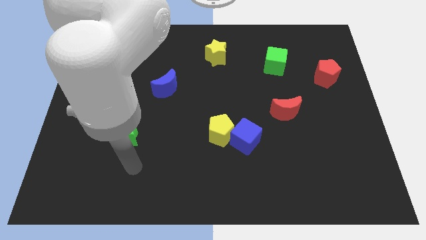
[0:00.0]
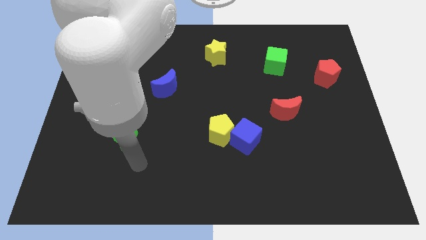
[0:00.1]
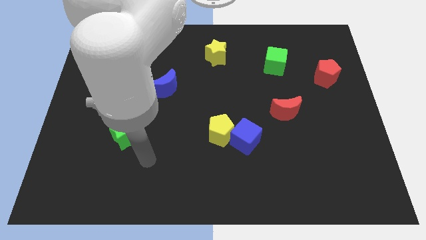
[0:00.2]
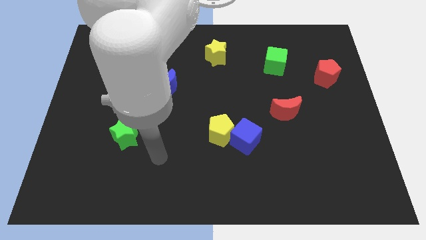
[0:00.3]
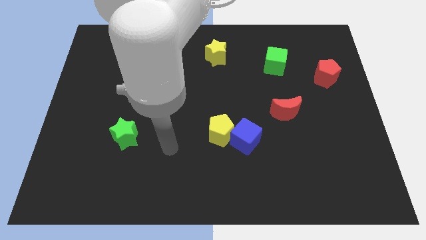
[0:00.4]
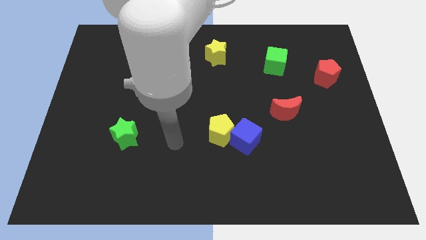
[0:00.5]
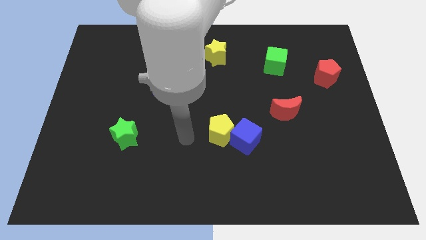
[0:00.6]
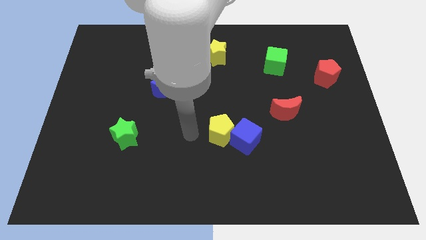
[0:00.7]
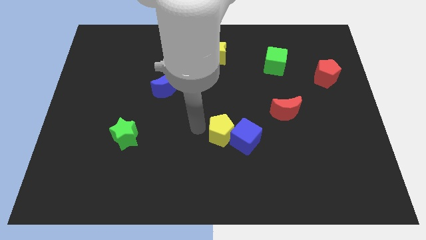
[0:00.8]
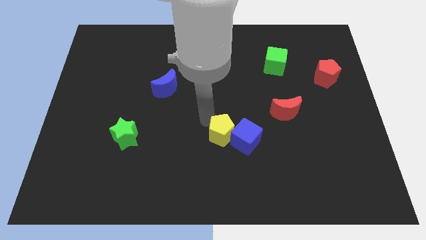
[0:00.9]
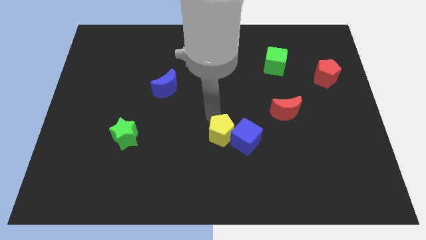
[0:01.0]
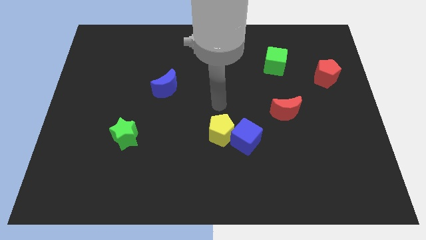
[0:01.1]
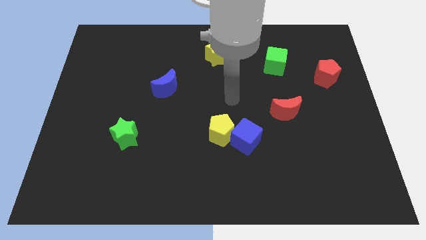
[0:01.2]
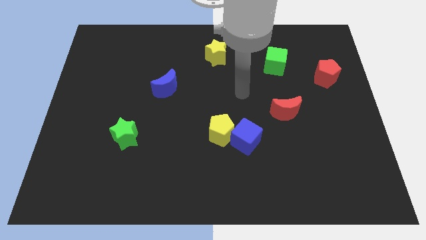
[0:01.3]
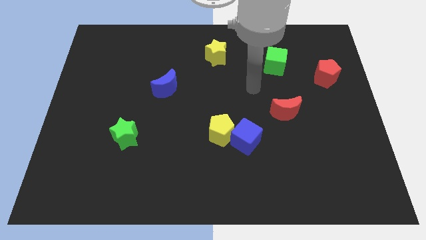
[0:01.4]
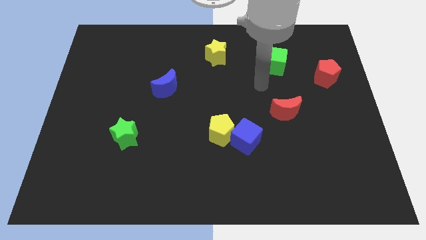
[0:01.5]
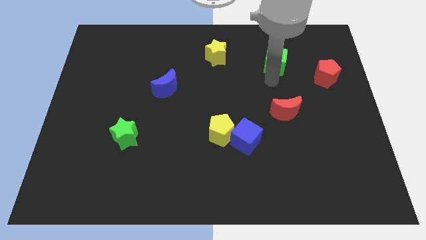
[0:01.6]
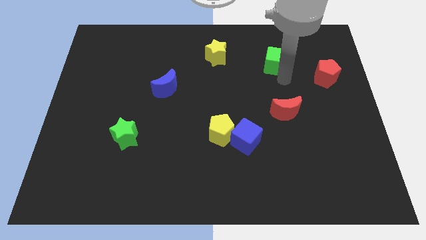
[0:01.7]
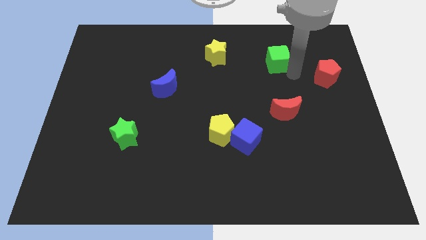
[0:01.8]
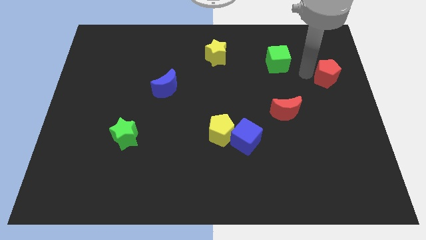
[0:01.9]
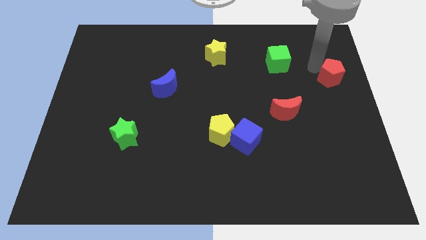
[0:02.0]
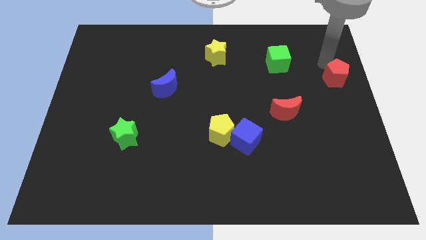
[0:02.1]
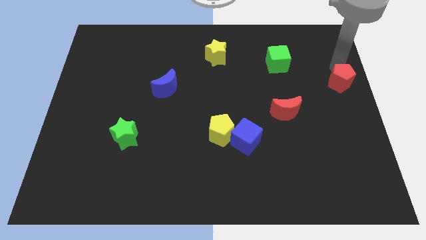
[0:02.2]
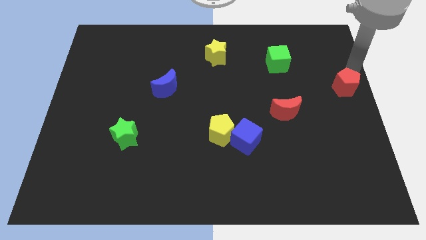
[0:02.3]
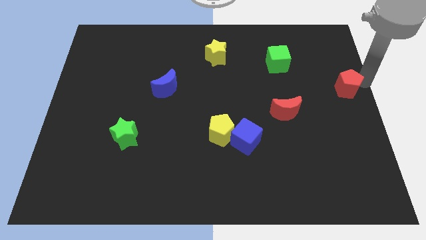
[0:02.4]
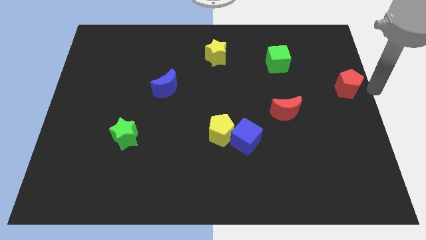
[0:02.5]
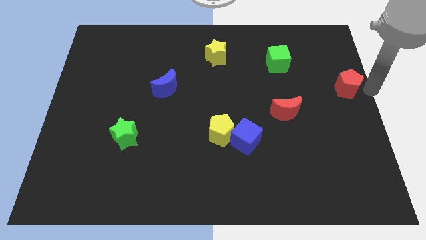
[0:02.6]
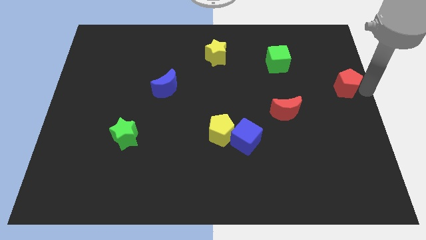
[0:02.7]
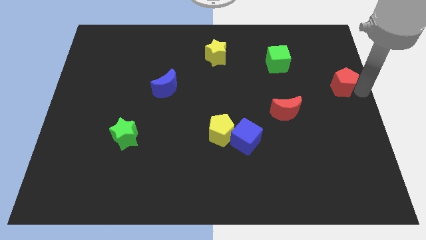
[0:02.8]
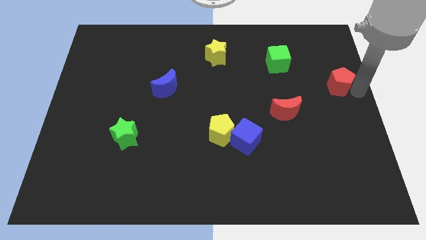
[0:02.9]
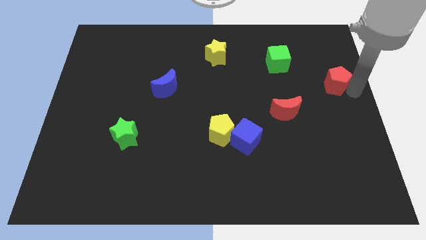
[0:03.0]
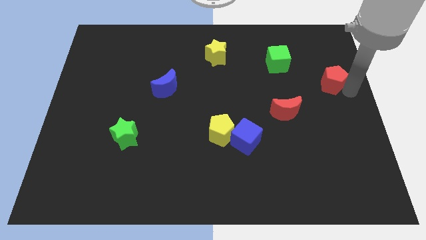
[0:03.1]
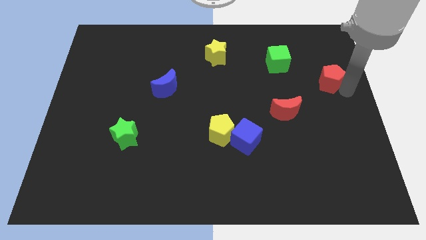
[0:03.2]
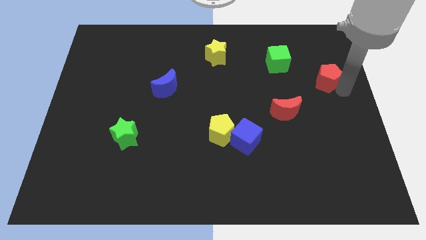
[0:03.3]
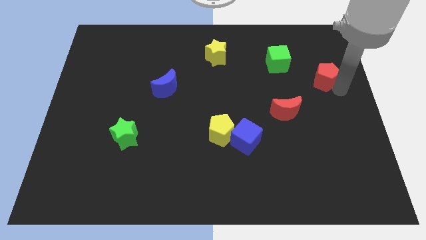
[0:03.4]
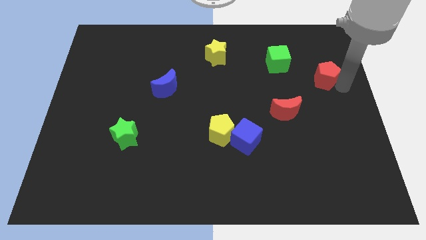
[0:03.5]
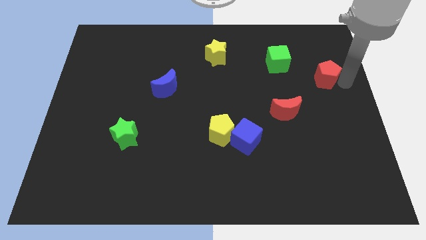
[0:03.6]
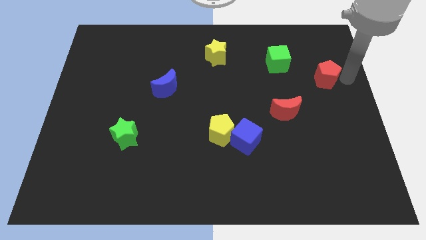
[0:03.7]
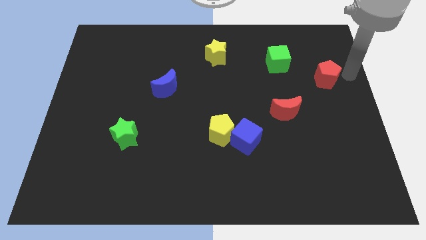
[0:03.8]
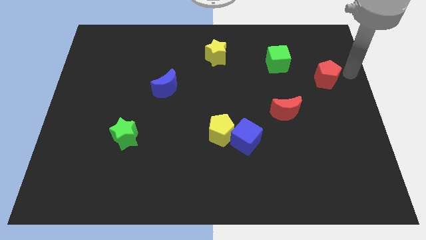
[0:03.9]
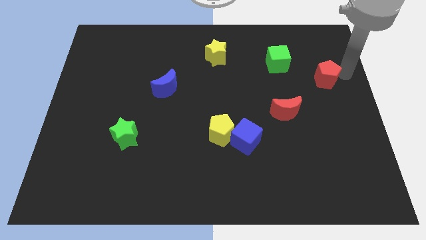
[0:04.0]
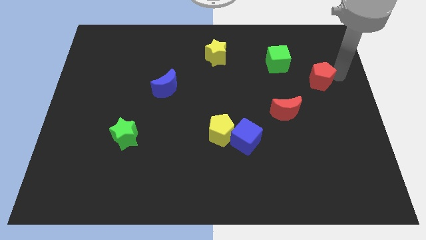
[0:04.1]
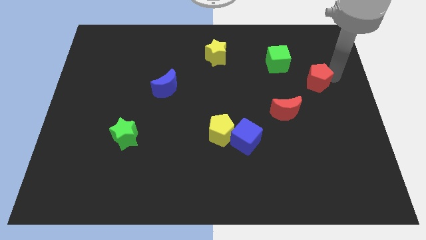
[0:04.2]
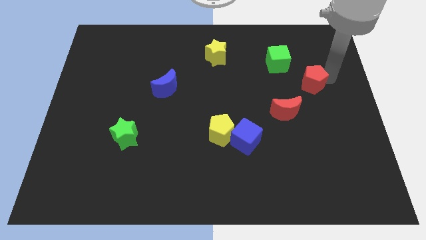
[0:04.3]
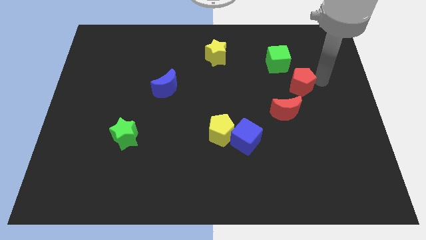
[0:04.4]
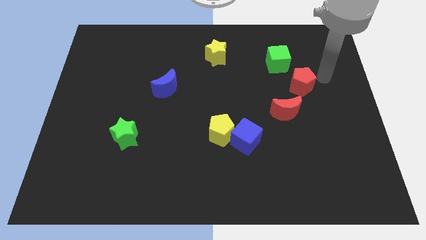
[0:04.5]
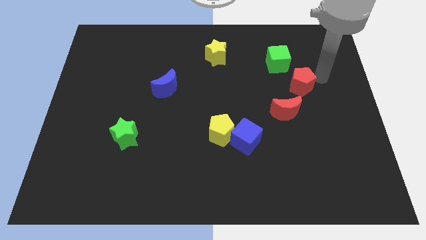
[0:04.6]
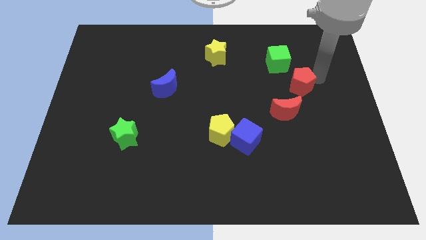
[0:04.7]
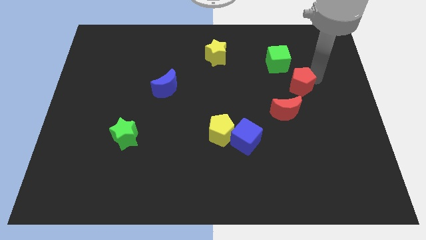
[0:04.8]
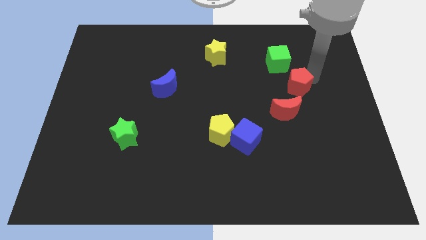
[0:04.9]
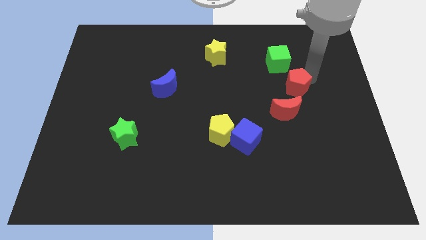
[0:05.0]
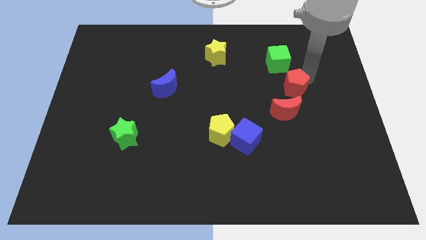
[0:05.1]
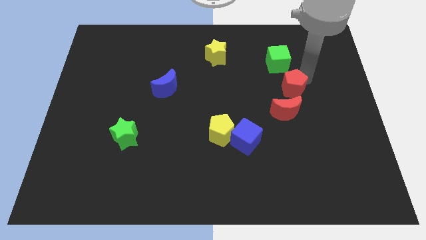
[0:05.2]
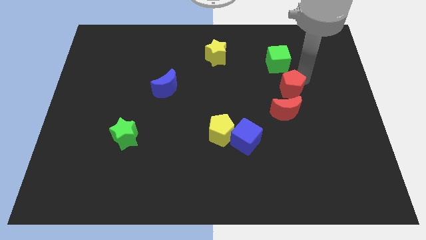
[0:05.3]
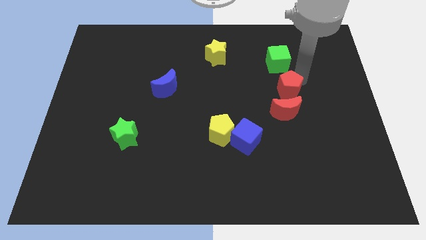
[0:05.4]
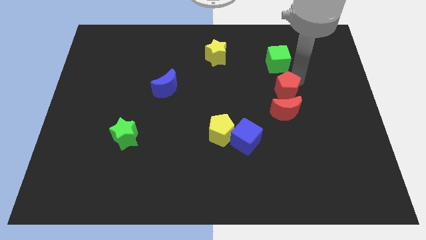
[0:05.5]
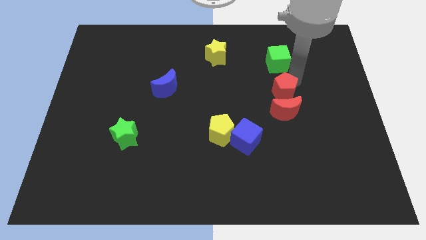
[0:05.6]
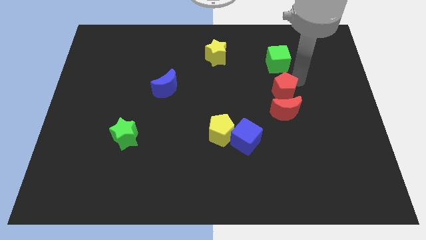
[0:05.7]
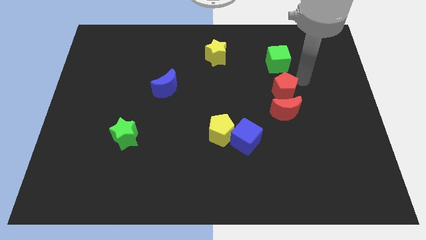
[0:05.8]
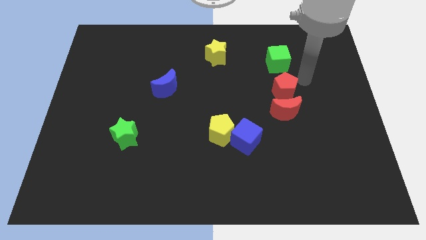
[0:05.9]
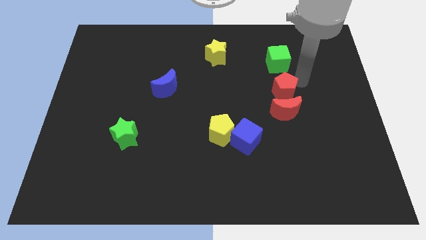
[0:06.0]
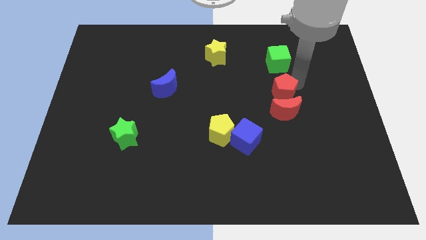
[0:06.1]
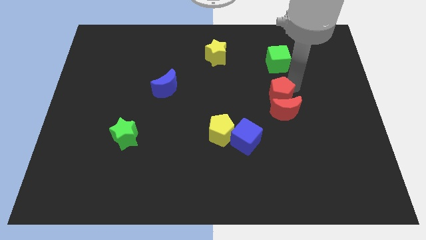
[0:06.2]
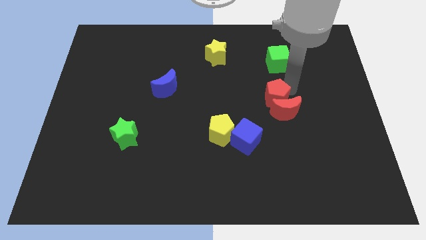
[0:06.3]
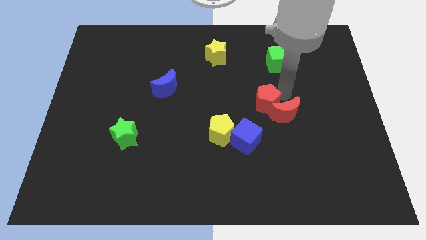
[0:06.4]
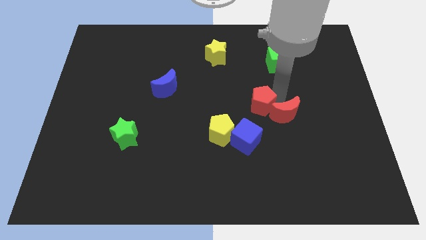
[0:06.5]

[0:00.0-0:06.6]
move the red pentagon to the top side of the blue cube

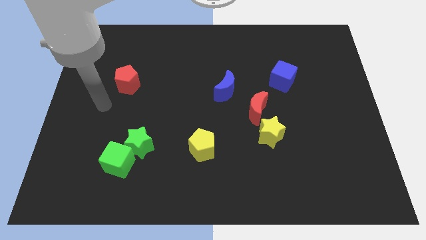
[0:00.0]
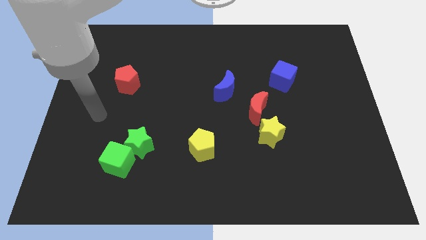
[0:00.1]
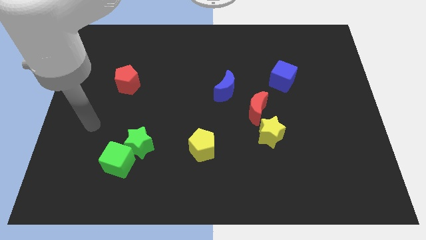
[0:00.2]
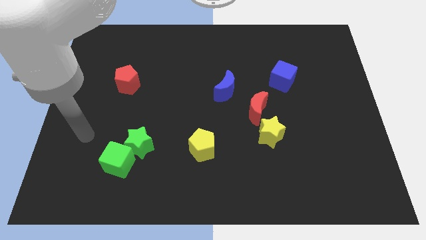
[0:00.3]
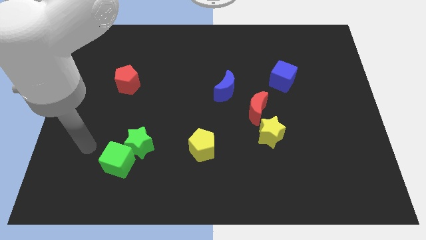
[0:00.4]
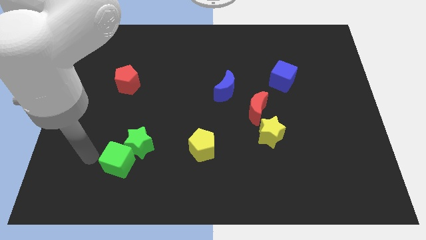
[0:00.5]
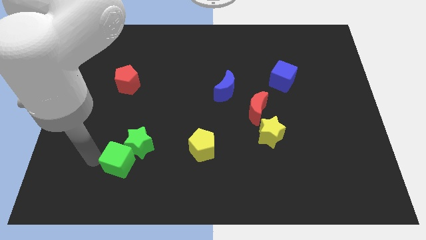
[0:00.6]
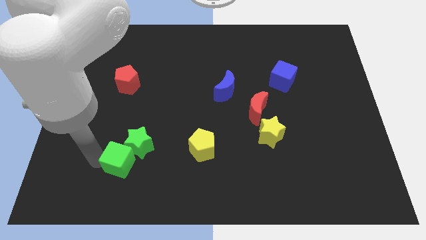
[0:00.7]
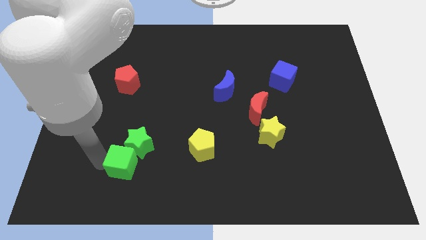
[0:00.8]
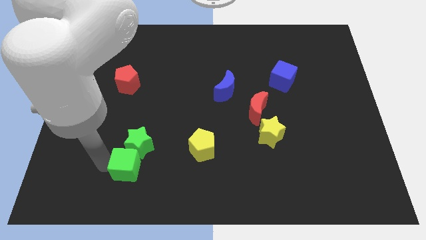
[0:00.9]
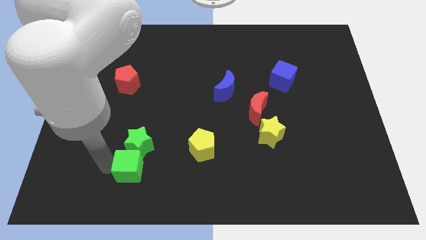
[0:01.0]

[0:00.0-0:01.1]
slide the green cube to the bottom right side of the green star
